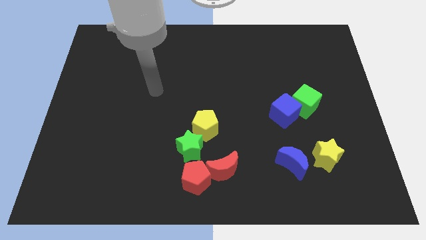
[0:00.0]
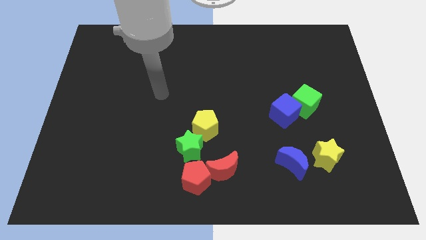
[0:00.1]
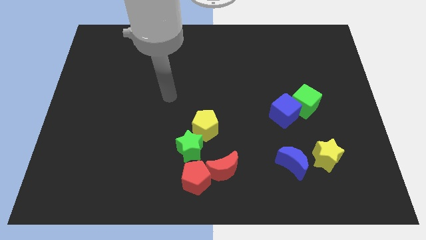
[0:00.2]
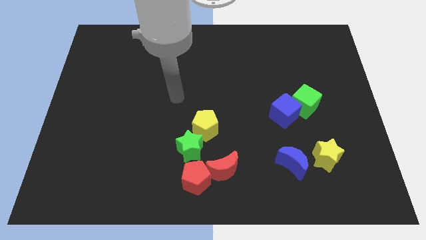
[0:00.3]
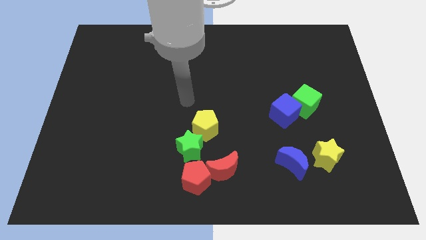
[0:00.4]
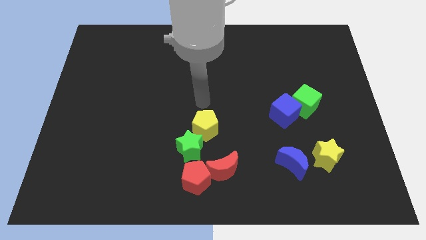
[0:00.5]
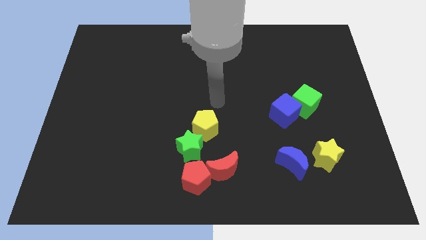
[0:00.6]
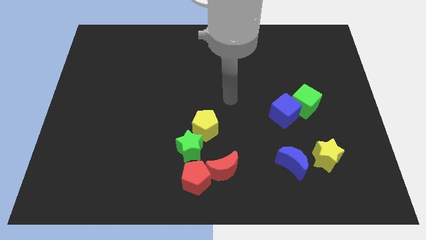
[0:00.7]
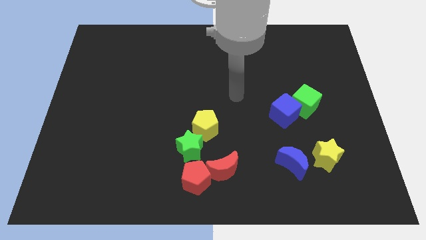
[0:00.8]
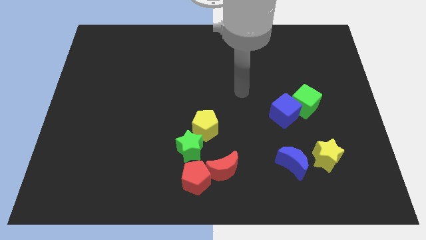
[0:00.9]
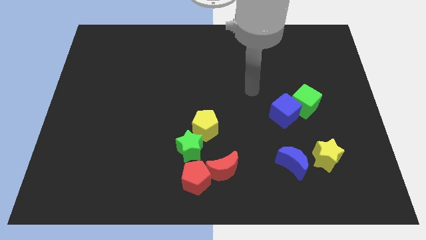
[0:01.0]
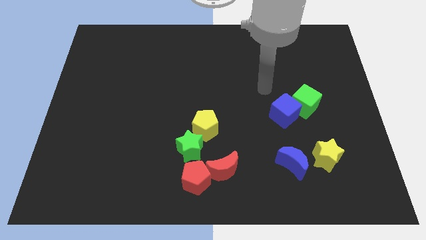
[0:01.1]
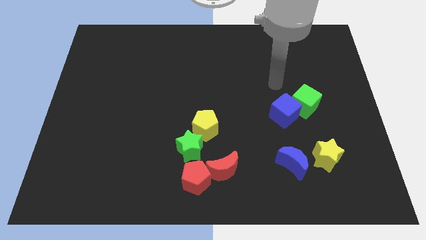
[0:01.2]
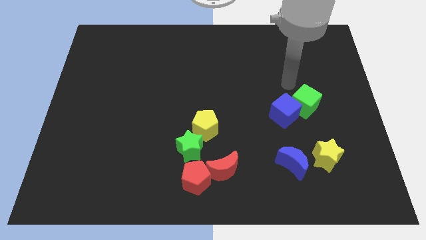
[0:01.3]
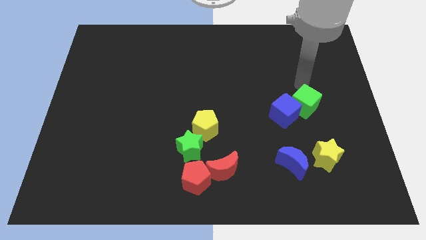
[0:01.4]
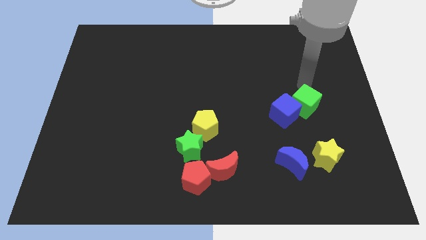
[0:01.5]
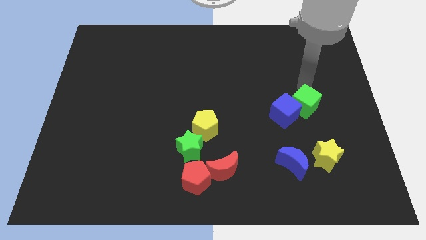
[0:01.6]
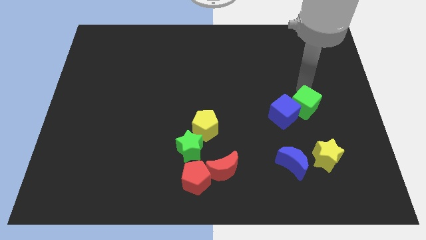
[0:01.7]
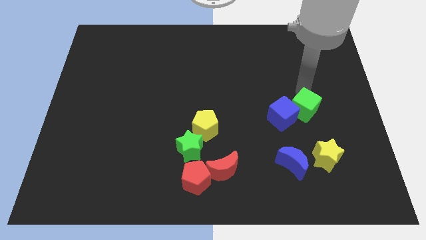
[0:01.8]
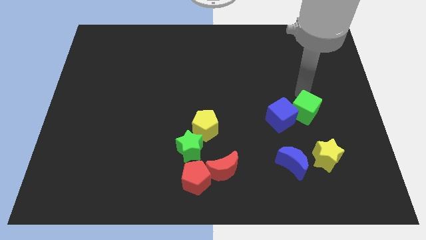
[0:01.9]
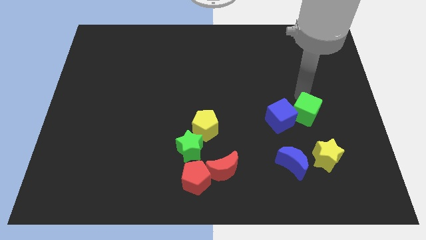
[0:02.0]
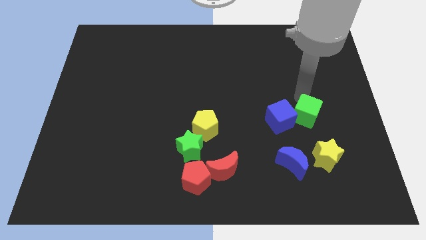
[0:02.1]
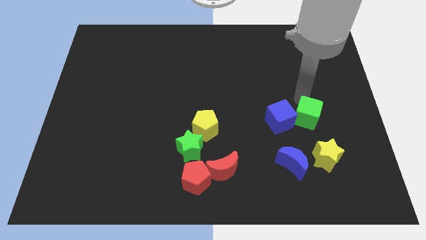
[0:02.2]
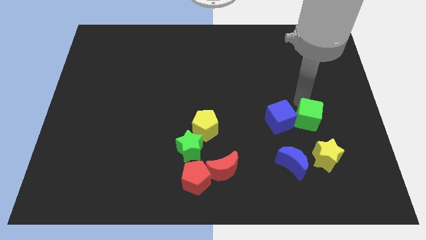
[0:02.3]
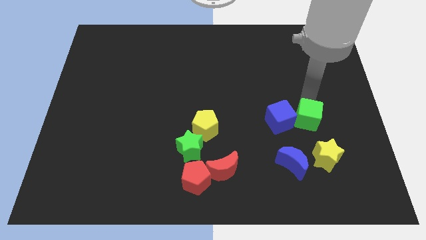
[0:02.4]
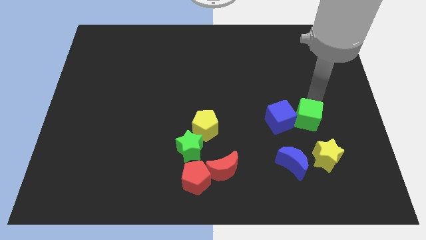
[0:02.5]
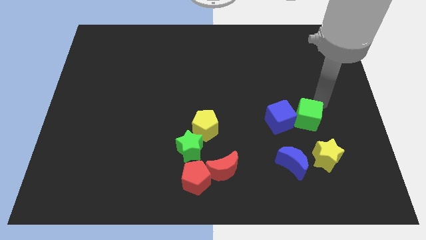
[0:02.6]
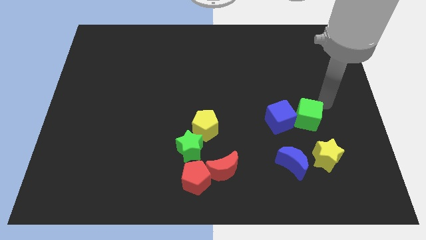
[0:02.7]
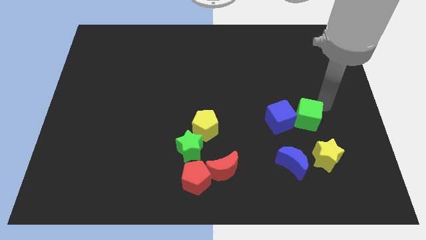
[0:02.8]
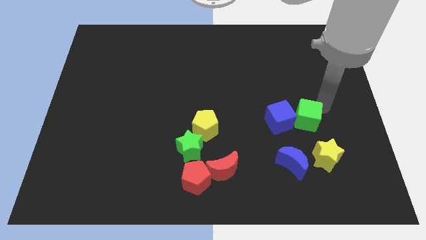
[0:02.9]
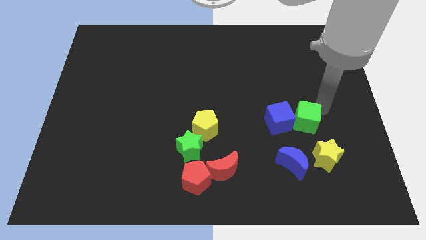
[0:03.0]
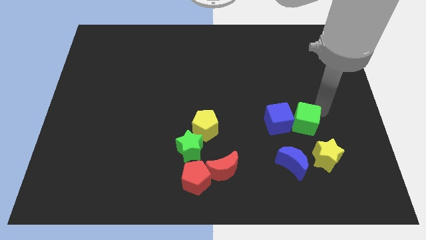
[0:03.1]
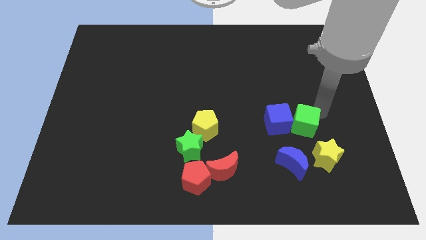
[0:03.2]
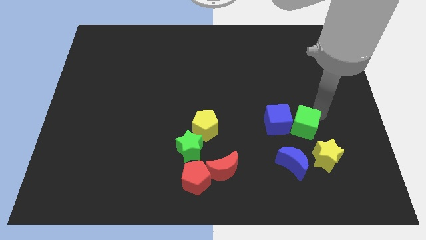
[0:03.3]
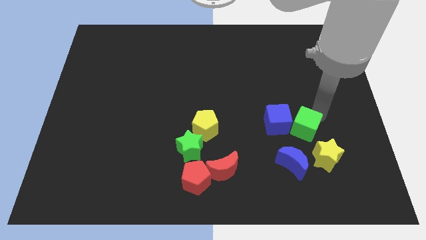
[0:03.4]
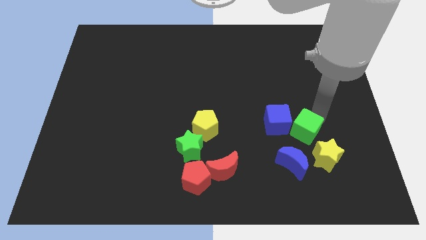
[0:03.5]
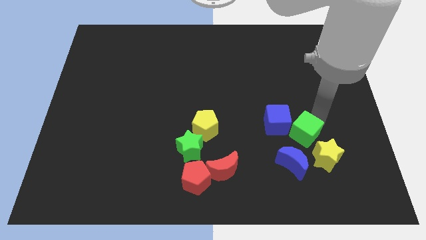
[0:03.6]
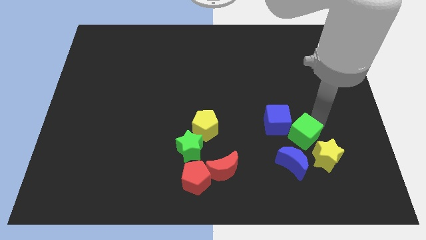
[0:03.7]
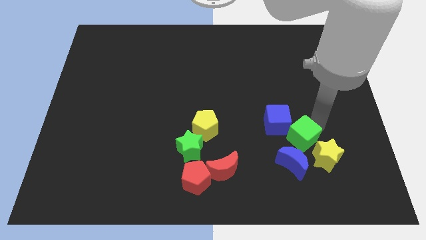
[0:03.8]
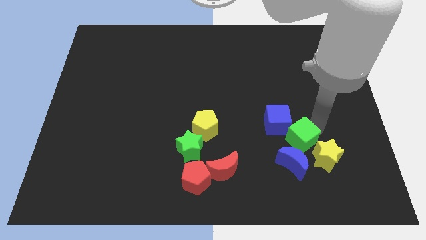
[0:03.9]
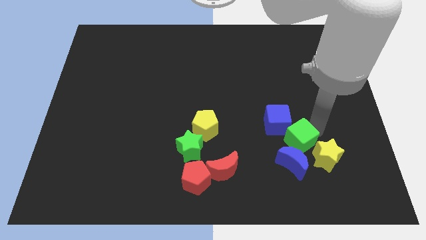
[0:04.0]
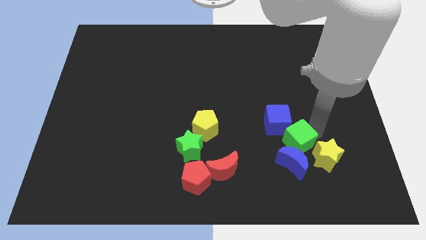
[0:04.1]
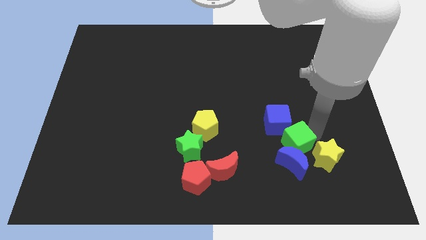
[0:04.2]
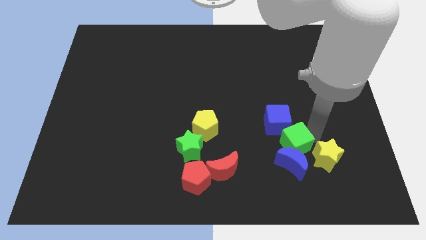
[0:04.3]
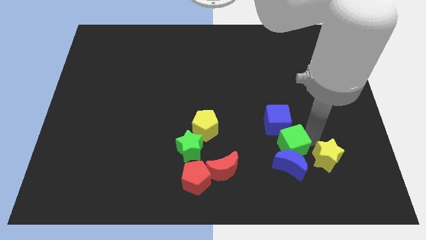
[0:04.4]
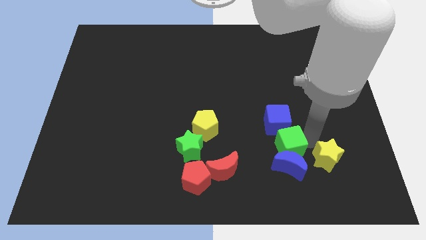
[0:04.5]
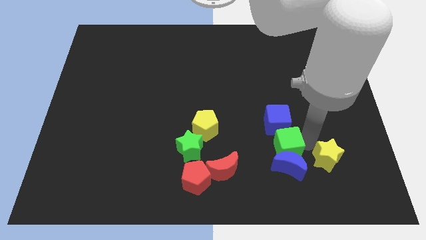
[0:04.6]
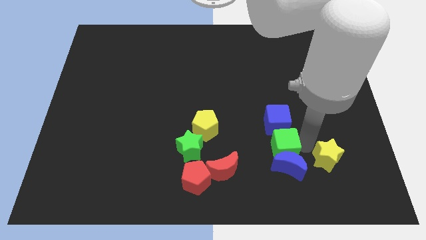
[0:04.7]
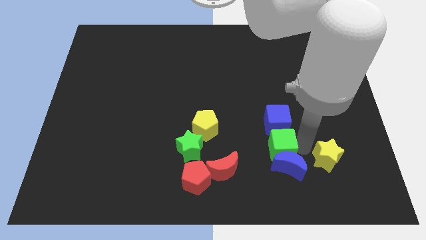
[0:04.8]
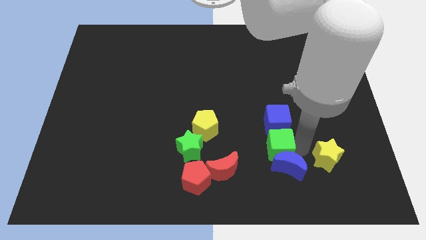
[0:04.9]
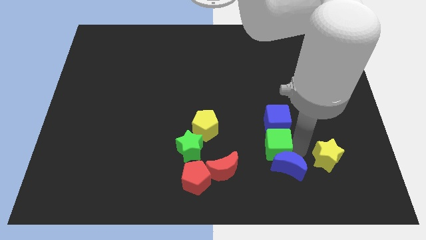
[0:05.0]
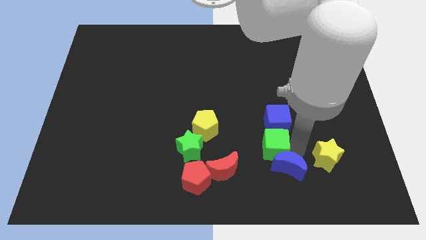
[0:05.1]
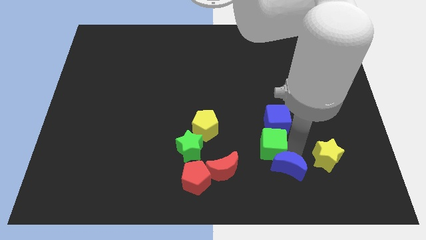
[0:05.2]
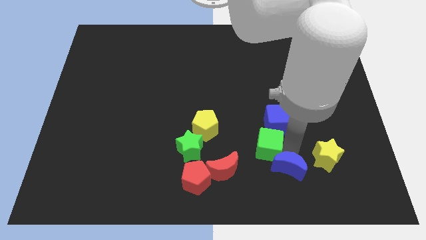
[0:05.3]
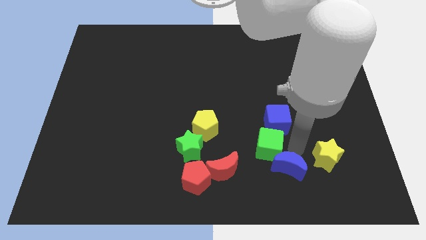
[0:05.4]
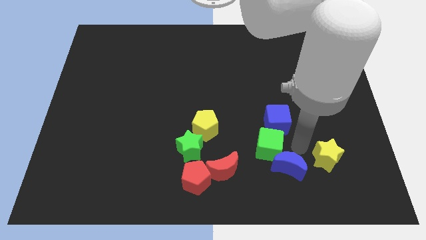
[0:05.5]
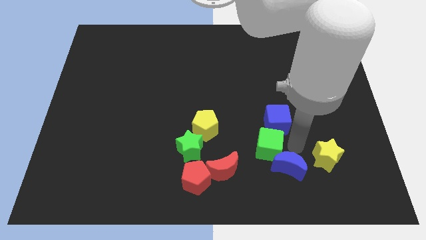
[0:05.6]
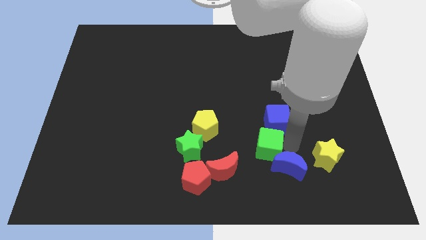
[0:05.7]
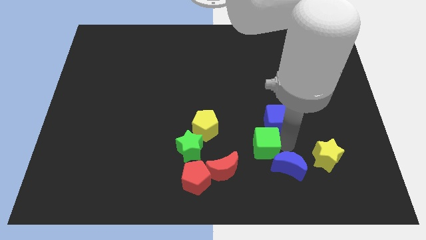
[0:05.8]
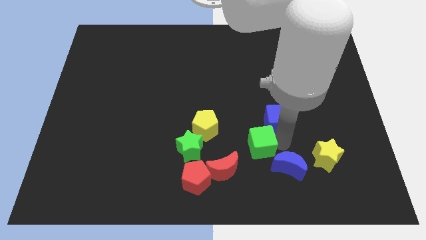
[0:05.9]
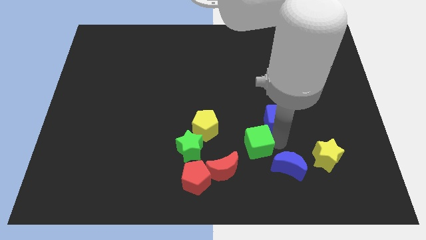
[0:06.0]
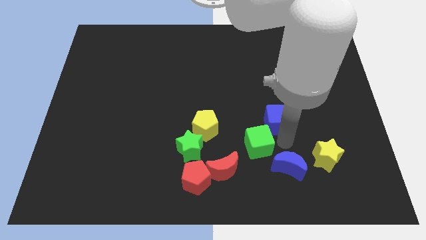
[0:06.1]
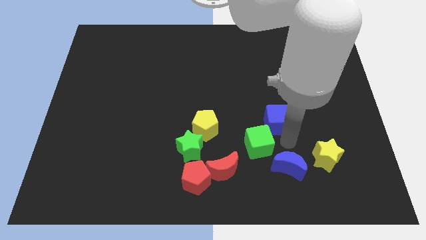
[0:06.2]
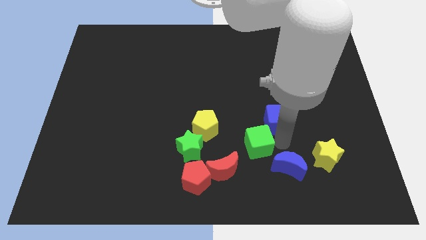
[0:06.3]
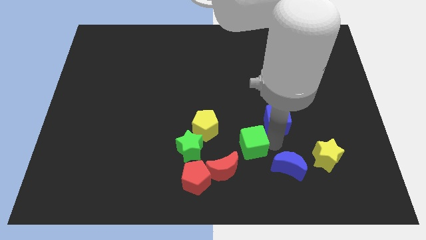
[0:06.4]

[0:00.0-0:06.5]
push the green cube to the bottom right of the yellow pentagon

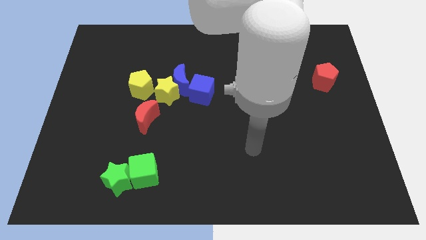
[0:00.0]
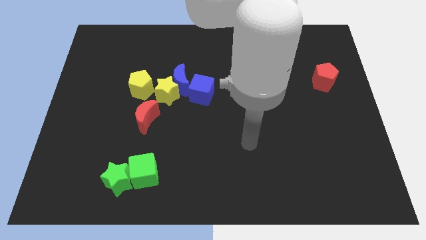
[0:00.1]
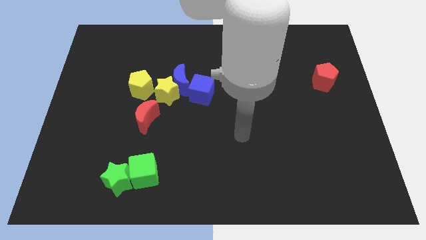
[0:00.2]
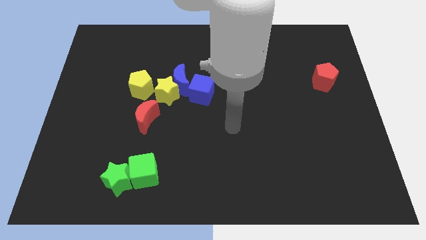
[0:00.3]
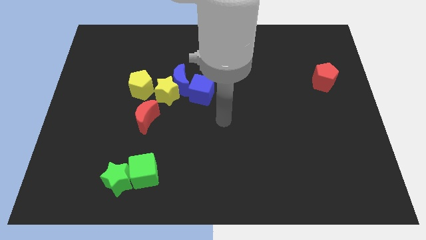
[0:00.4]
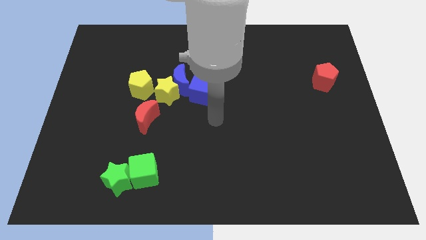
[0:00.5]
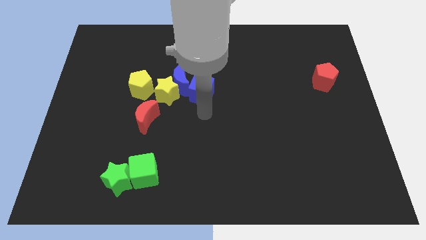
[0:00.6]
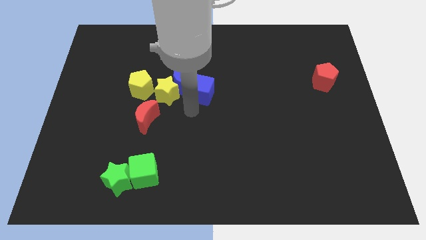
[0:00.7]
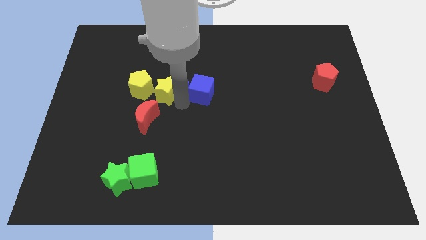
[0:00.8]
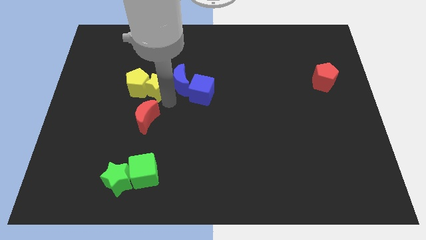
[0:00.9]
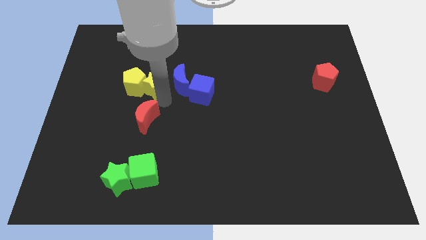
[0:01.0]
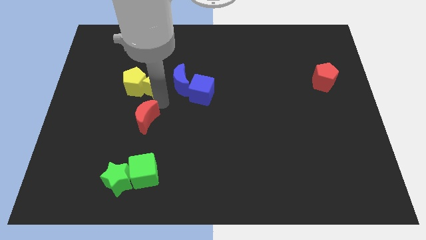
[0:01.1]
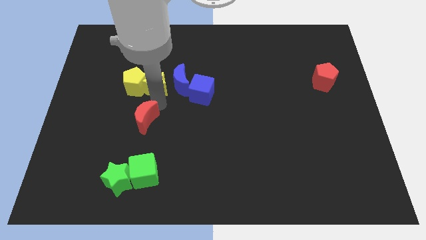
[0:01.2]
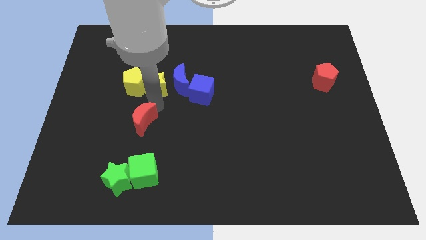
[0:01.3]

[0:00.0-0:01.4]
move the red moon above the green star
